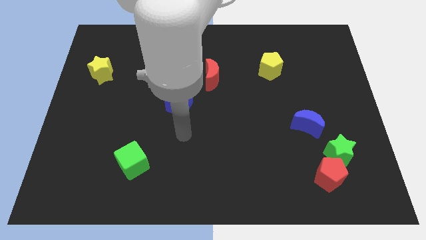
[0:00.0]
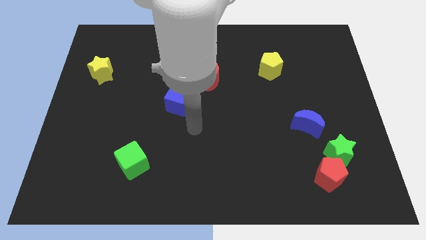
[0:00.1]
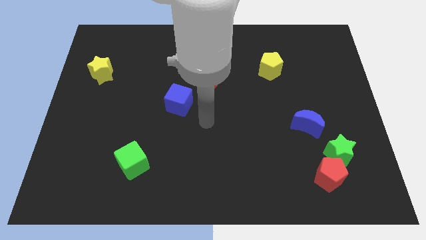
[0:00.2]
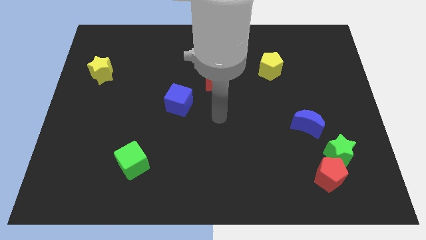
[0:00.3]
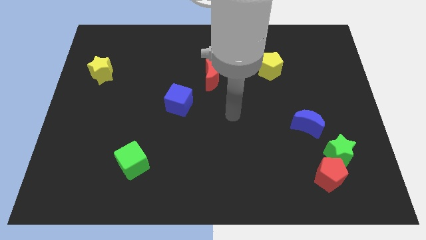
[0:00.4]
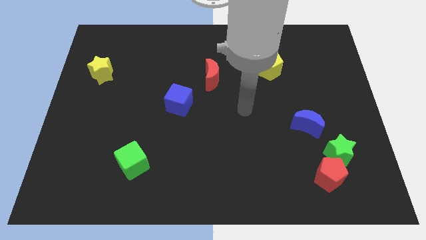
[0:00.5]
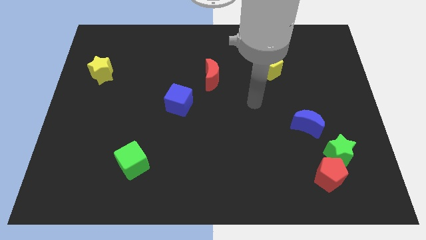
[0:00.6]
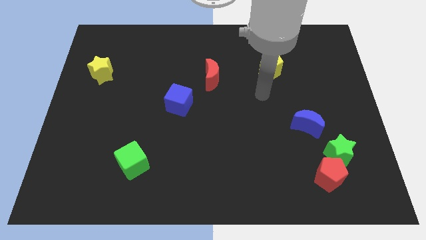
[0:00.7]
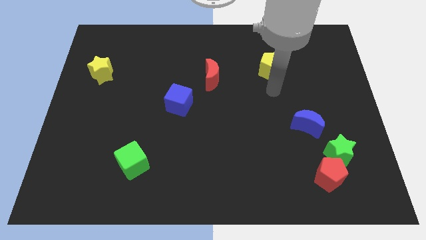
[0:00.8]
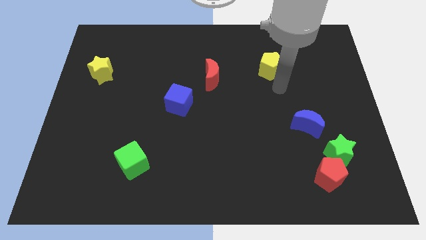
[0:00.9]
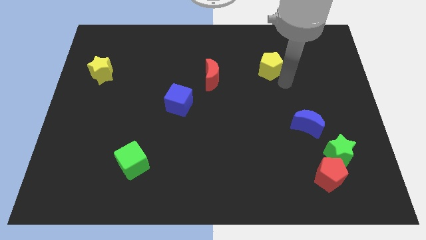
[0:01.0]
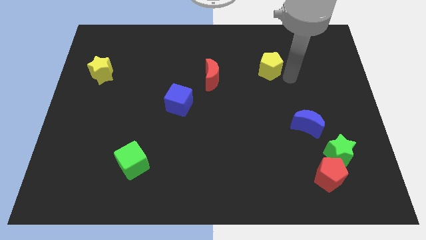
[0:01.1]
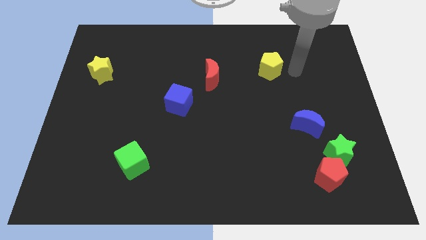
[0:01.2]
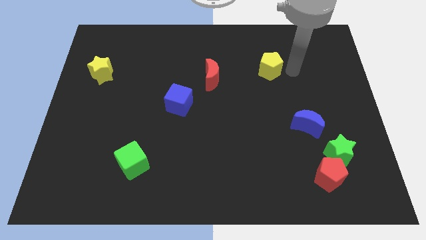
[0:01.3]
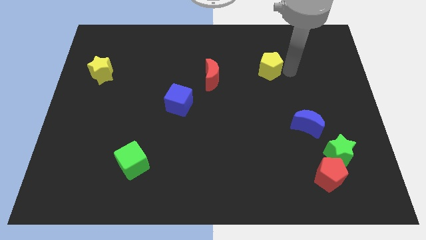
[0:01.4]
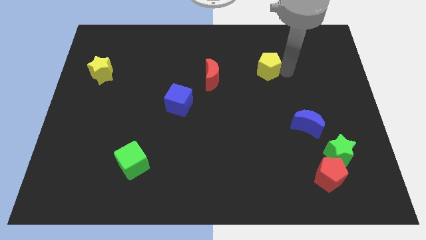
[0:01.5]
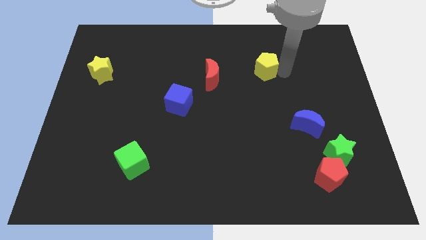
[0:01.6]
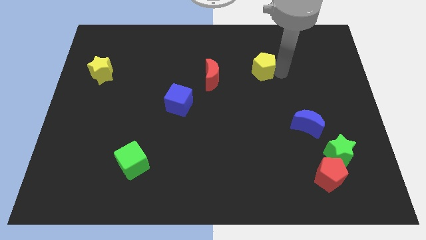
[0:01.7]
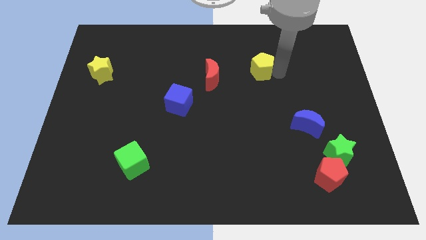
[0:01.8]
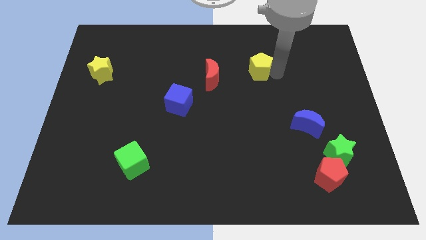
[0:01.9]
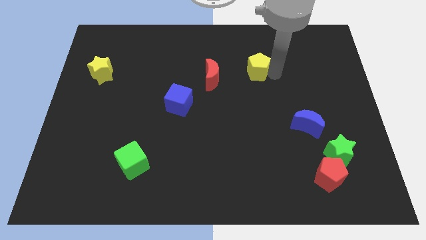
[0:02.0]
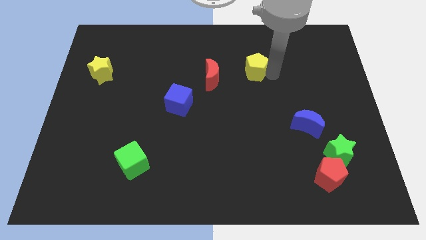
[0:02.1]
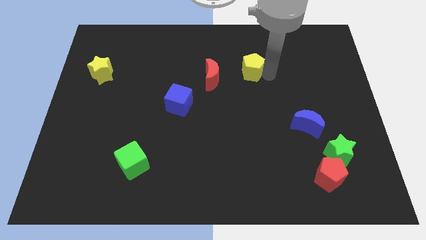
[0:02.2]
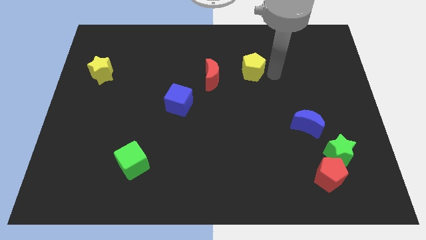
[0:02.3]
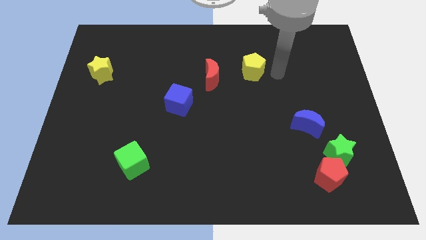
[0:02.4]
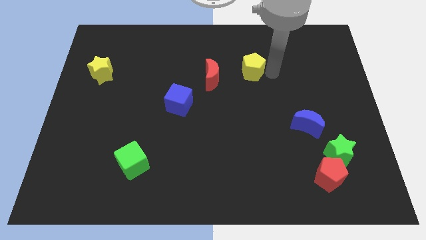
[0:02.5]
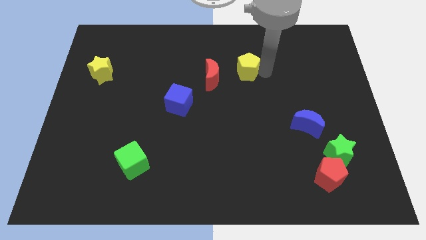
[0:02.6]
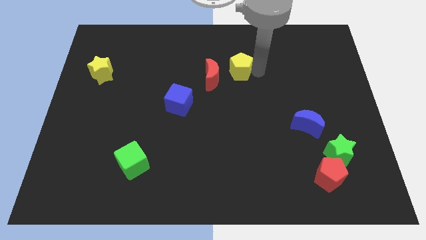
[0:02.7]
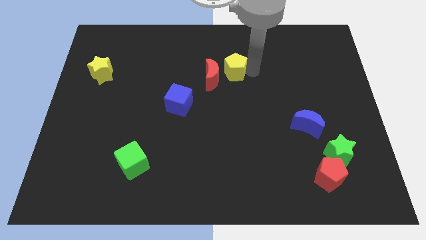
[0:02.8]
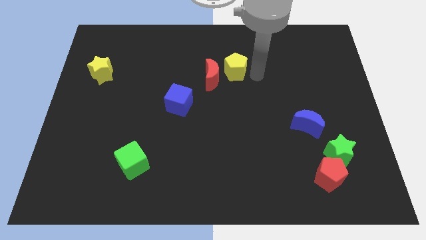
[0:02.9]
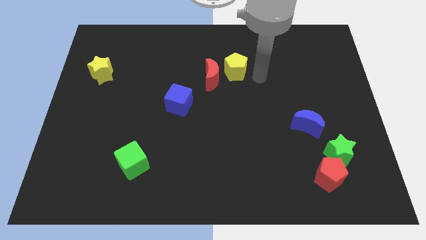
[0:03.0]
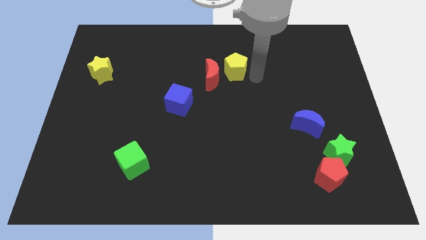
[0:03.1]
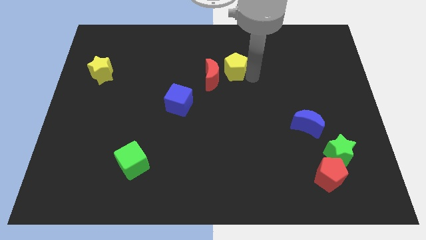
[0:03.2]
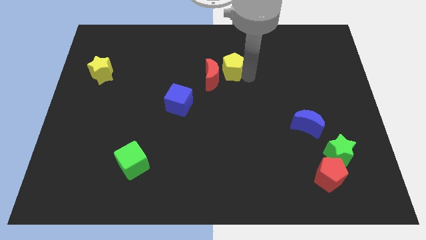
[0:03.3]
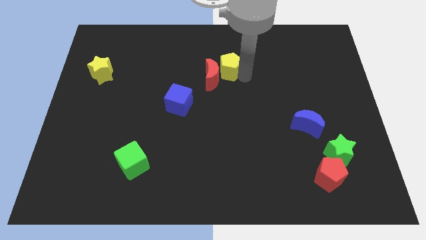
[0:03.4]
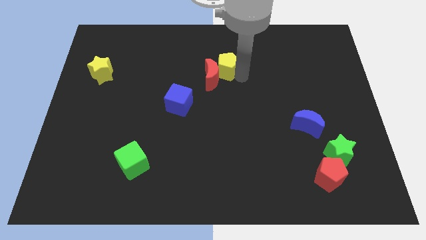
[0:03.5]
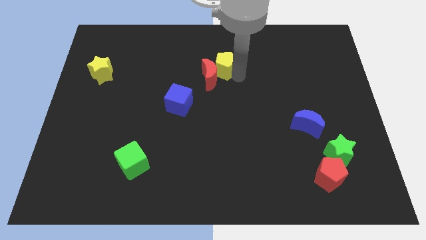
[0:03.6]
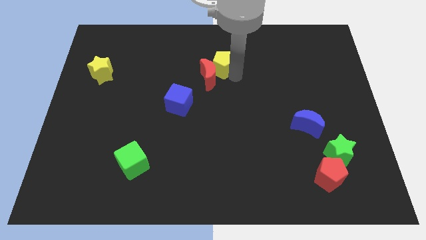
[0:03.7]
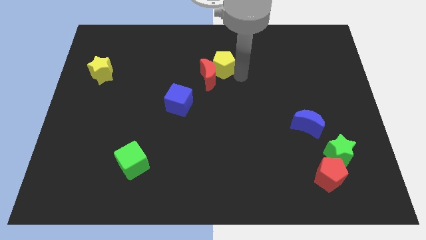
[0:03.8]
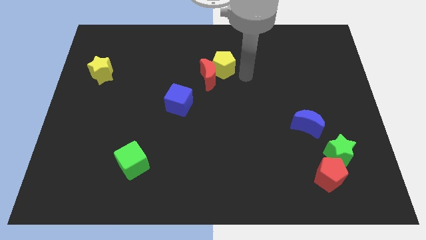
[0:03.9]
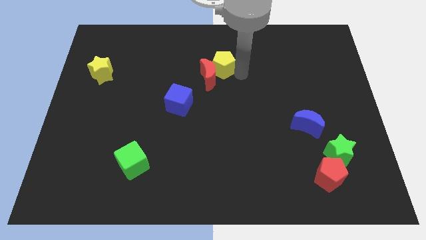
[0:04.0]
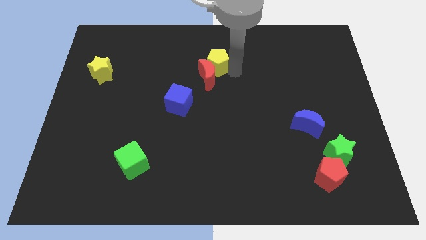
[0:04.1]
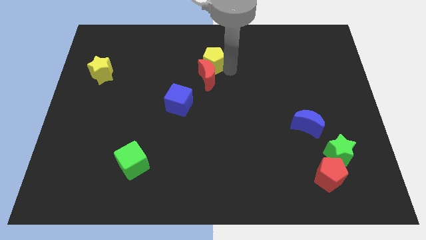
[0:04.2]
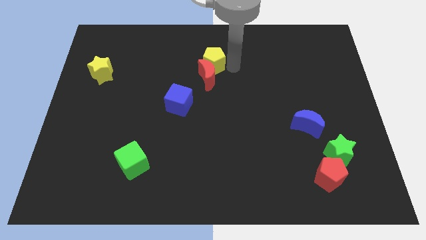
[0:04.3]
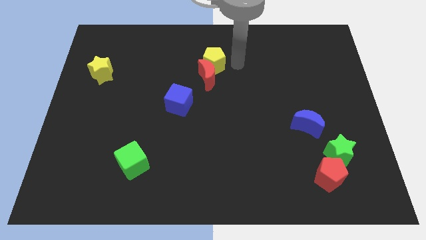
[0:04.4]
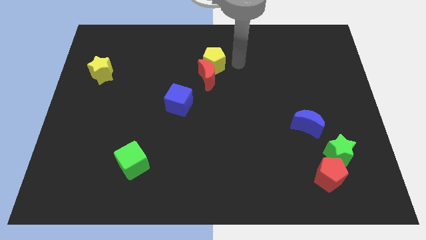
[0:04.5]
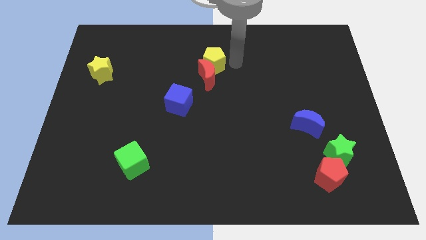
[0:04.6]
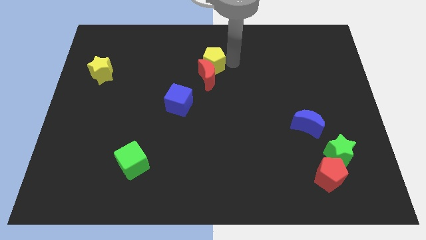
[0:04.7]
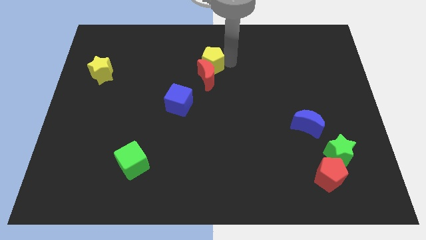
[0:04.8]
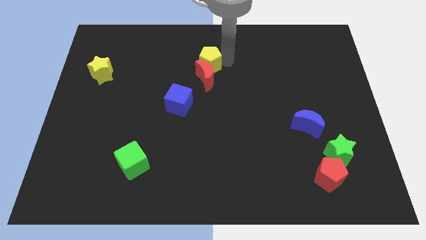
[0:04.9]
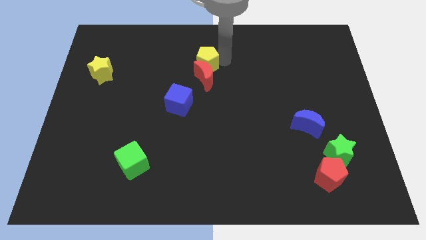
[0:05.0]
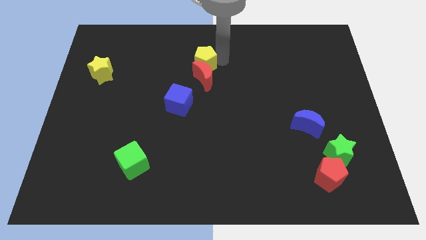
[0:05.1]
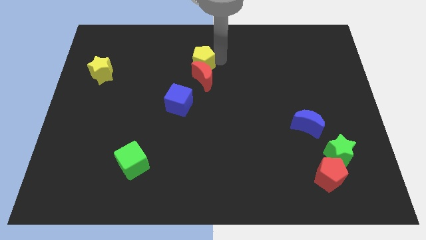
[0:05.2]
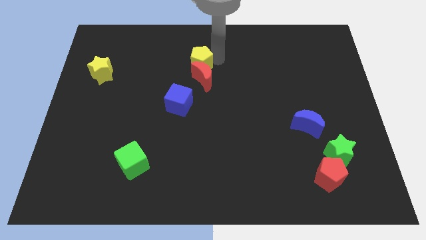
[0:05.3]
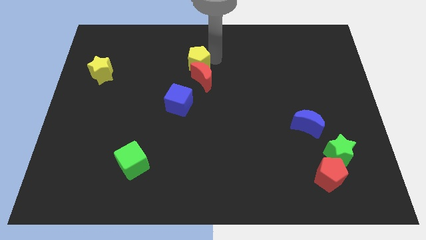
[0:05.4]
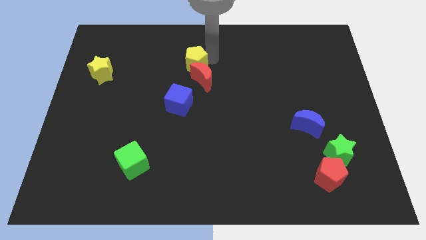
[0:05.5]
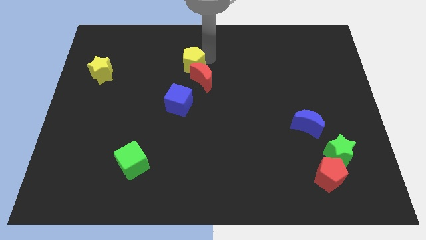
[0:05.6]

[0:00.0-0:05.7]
move the yellow pentagon left

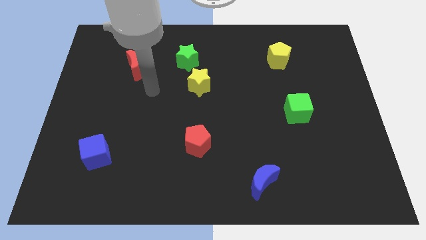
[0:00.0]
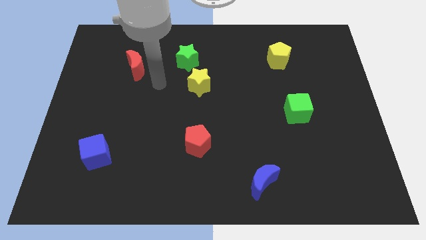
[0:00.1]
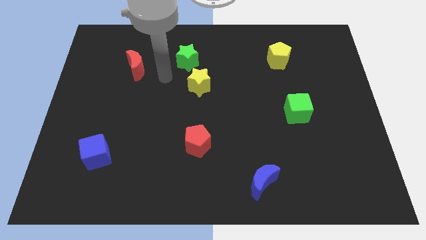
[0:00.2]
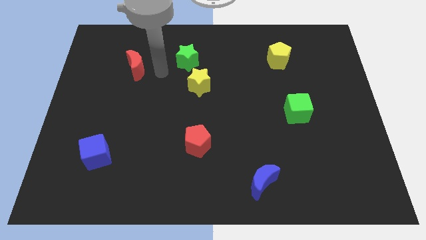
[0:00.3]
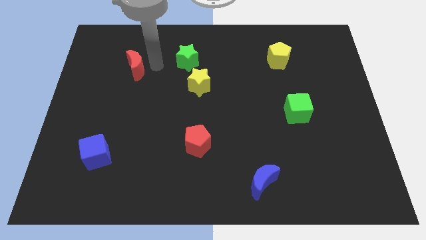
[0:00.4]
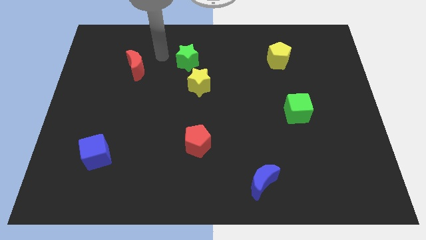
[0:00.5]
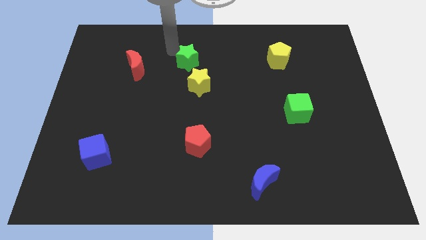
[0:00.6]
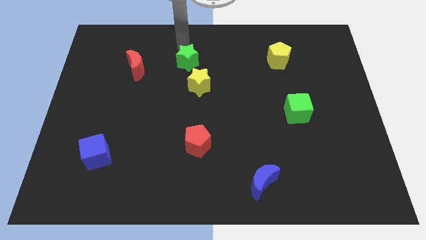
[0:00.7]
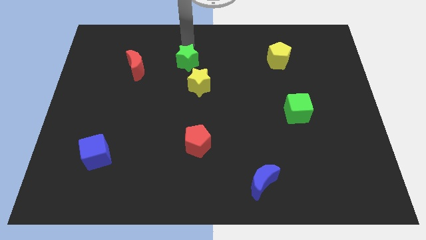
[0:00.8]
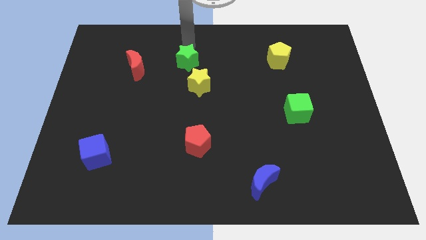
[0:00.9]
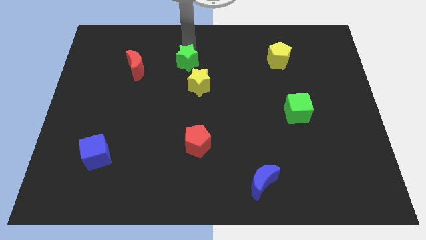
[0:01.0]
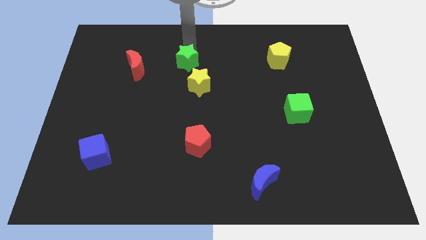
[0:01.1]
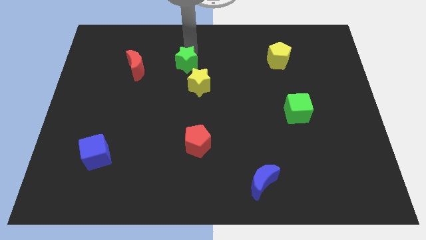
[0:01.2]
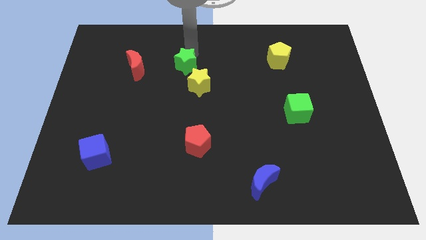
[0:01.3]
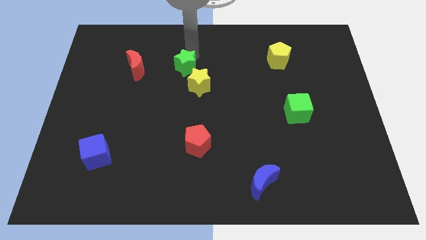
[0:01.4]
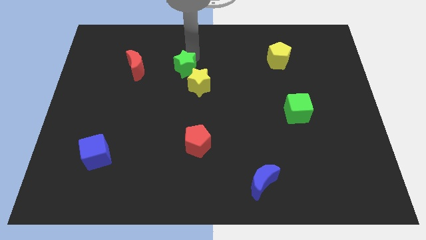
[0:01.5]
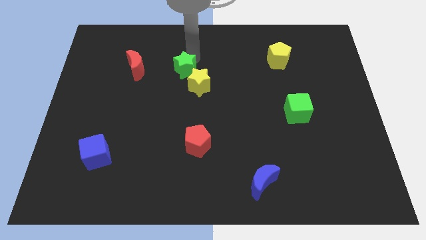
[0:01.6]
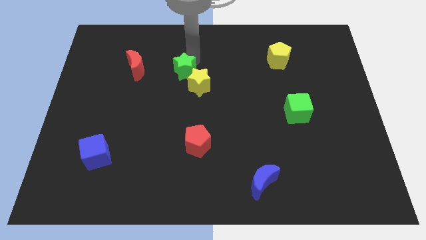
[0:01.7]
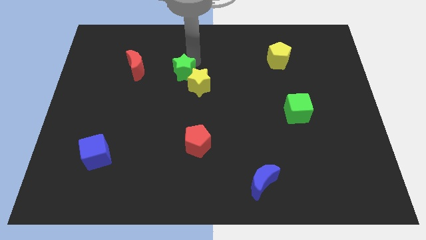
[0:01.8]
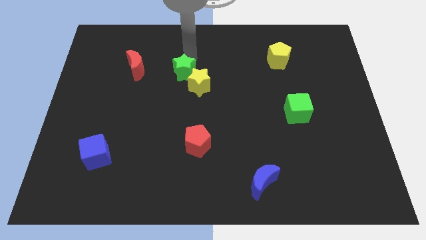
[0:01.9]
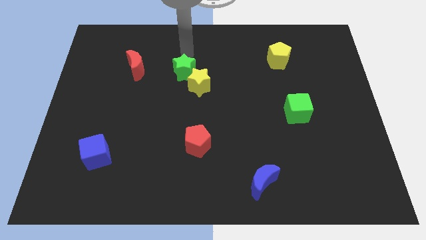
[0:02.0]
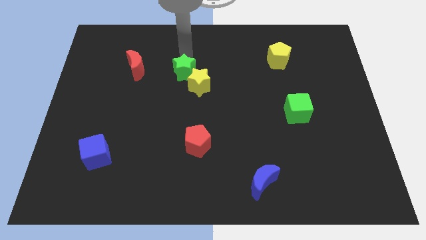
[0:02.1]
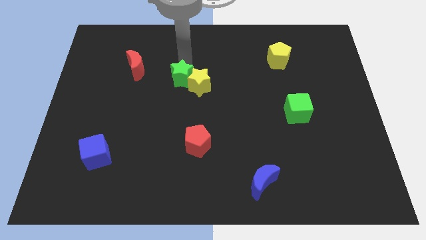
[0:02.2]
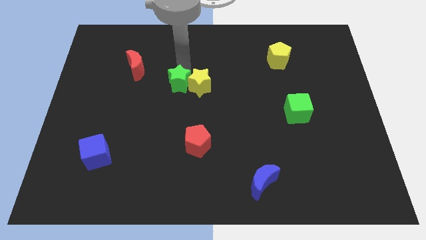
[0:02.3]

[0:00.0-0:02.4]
push the green star downwards slightly
